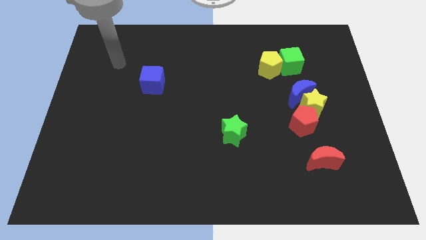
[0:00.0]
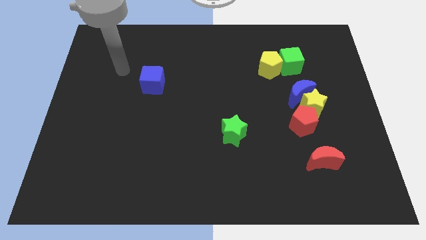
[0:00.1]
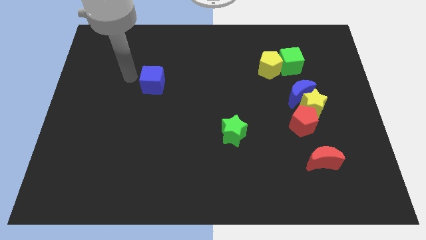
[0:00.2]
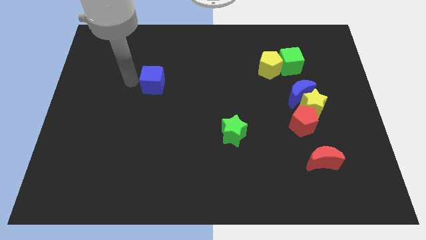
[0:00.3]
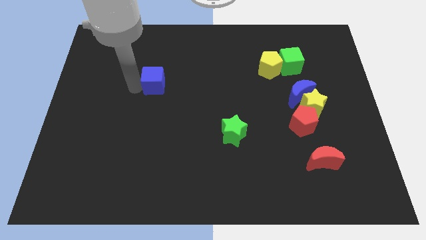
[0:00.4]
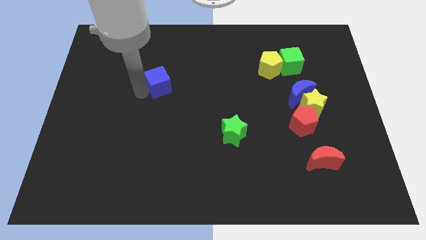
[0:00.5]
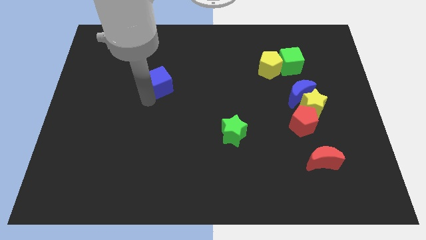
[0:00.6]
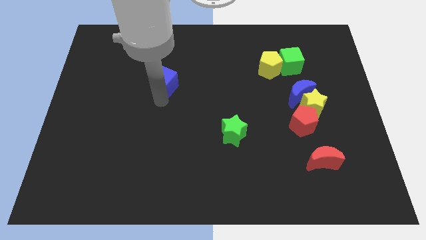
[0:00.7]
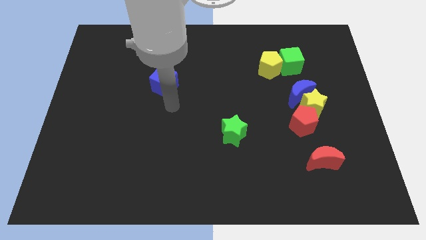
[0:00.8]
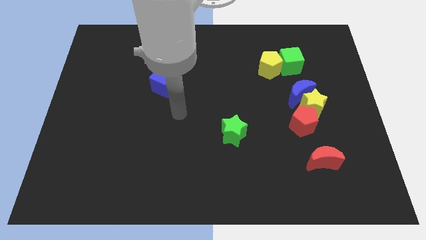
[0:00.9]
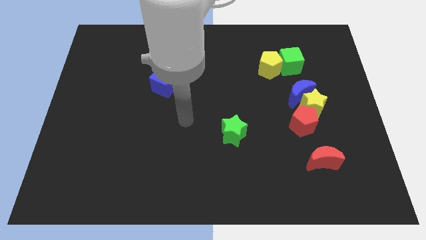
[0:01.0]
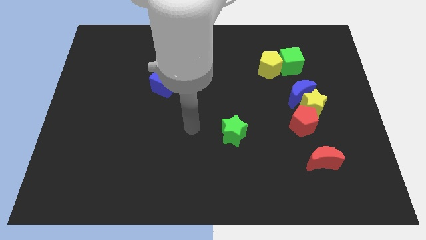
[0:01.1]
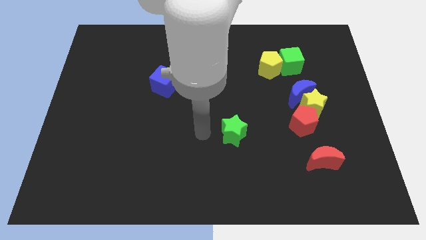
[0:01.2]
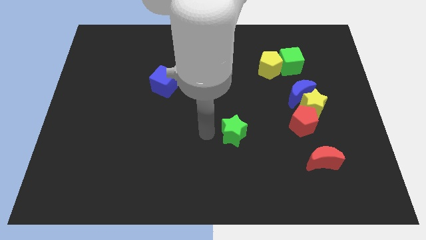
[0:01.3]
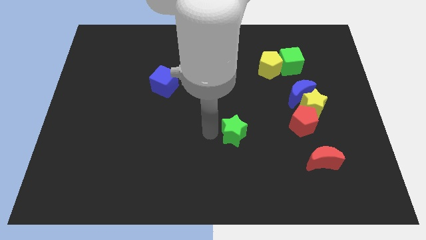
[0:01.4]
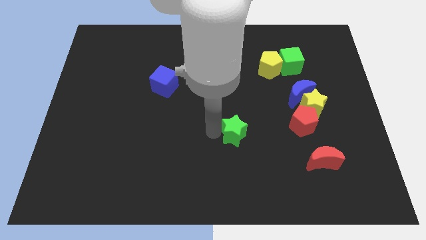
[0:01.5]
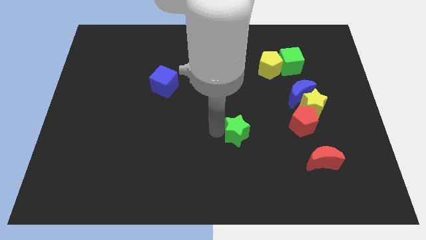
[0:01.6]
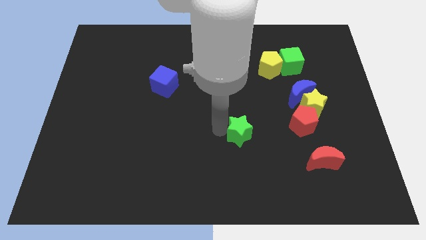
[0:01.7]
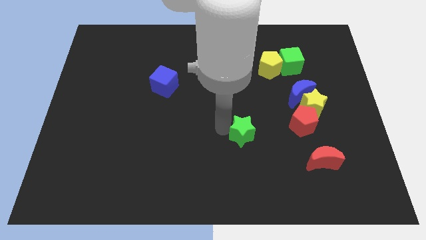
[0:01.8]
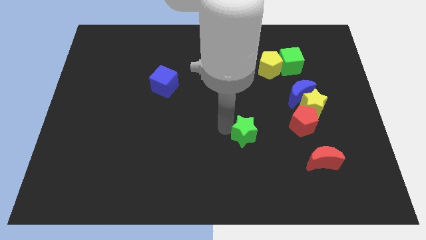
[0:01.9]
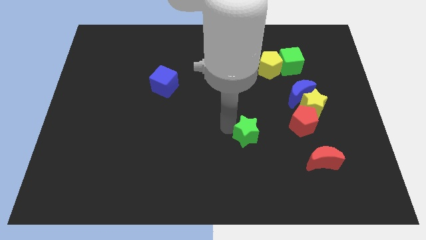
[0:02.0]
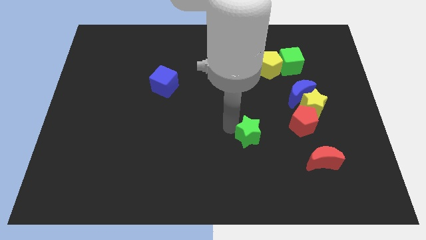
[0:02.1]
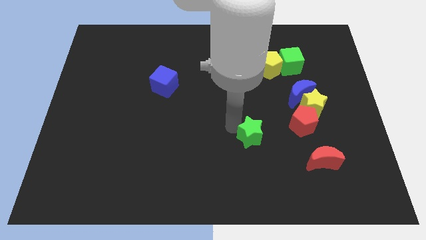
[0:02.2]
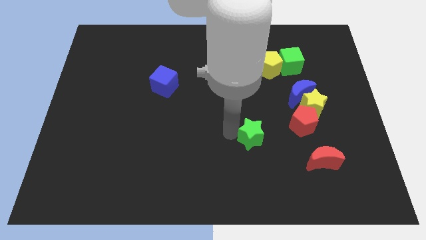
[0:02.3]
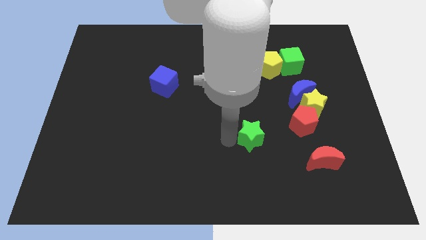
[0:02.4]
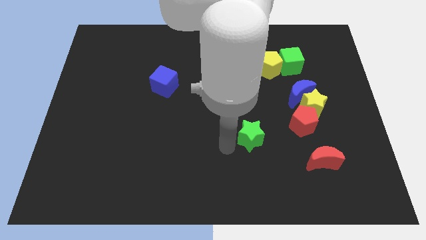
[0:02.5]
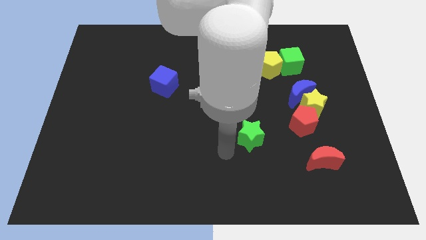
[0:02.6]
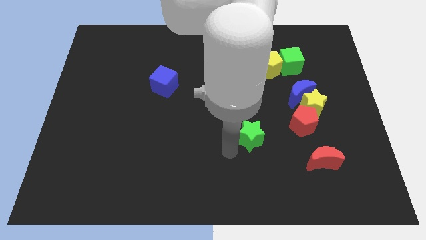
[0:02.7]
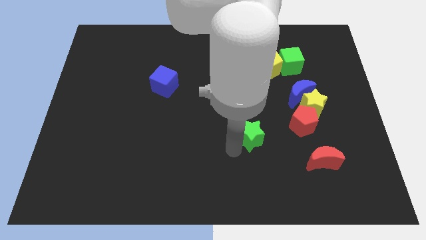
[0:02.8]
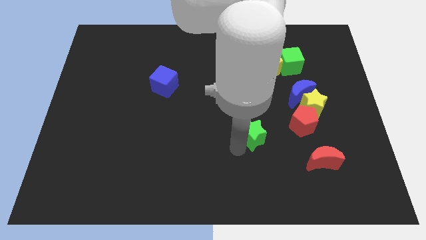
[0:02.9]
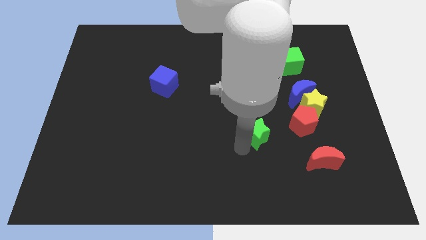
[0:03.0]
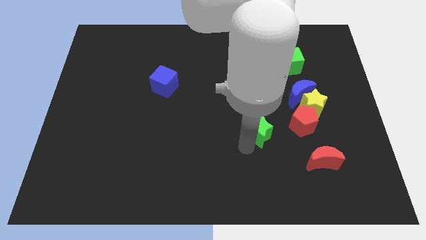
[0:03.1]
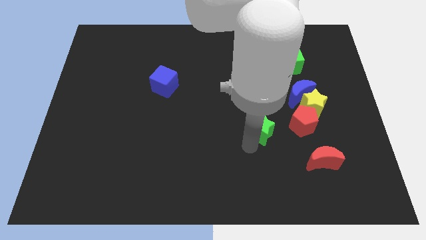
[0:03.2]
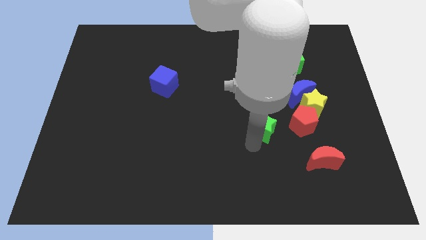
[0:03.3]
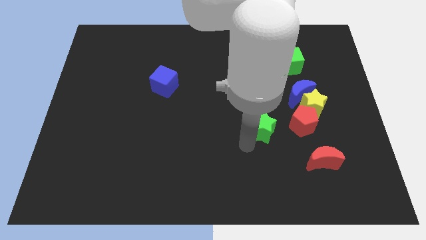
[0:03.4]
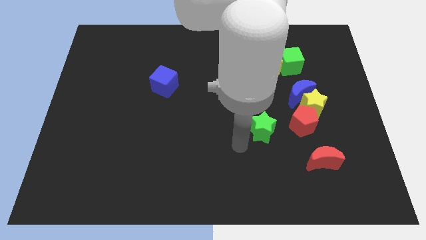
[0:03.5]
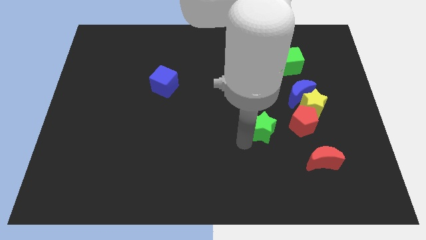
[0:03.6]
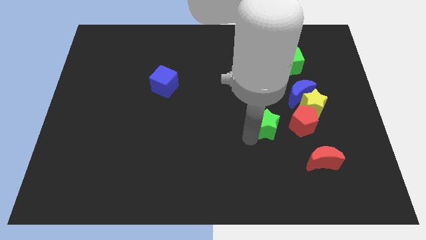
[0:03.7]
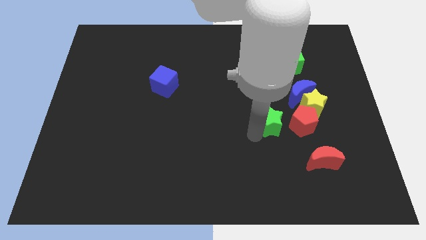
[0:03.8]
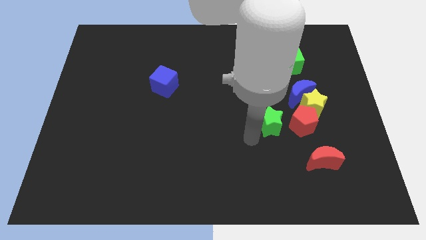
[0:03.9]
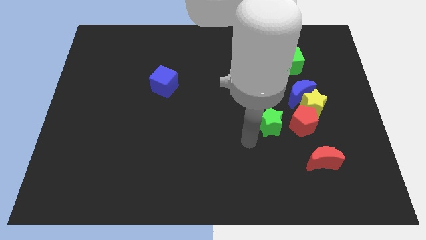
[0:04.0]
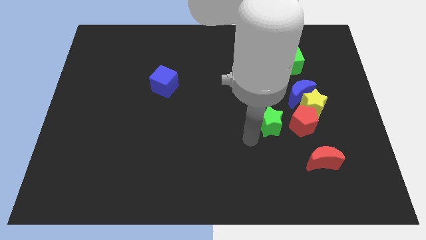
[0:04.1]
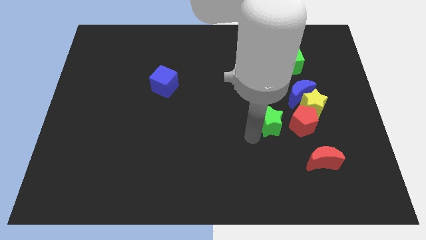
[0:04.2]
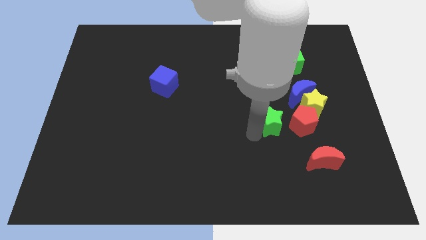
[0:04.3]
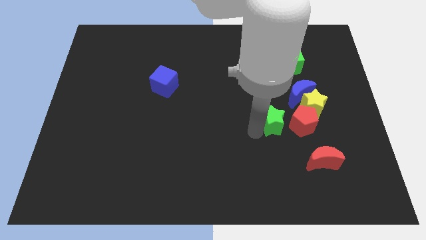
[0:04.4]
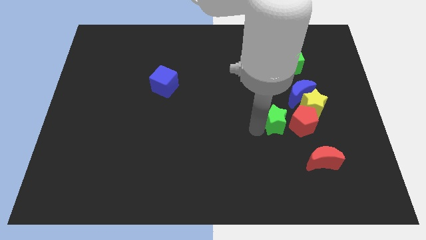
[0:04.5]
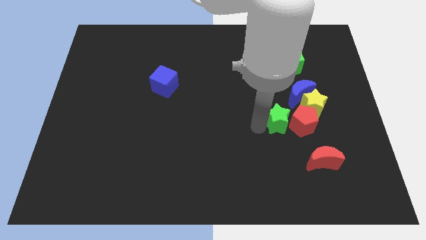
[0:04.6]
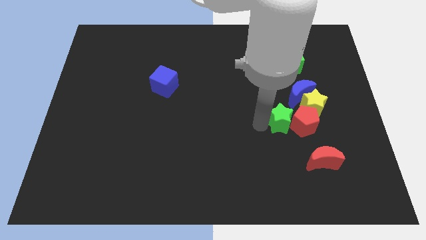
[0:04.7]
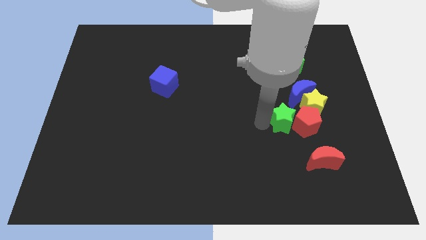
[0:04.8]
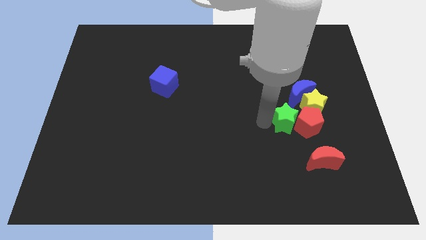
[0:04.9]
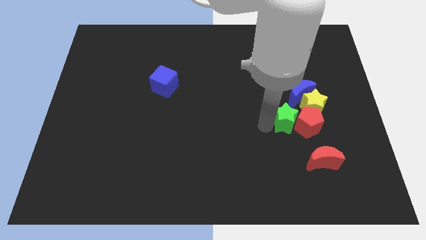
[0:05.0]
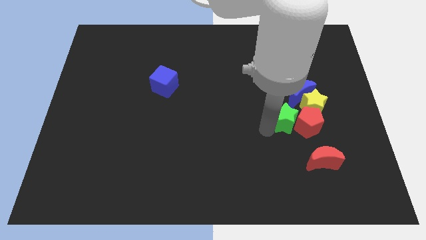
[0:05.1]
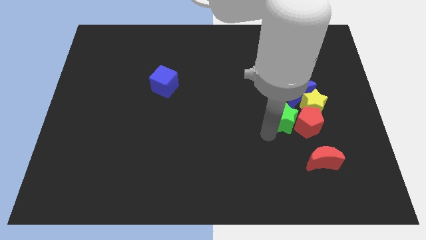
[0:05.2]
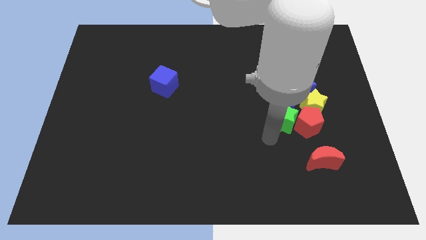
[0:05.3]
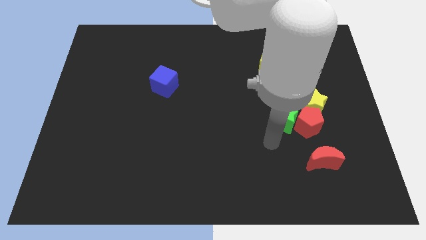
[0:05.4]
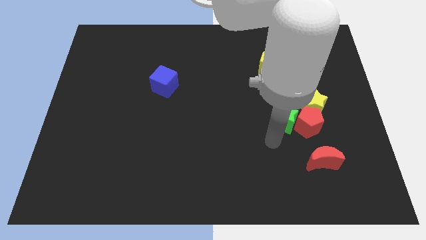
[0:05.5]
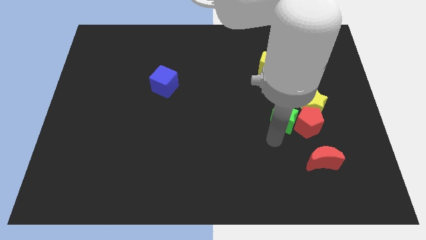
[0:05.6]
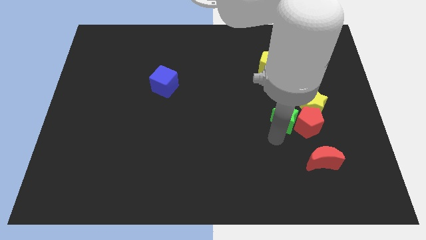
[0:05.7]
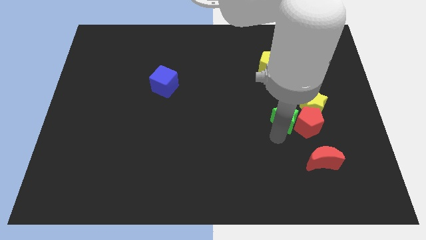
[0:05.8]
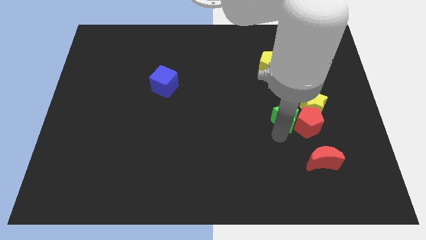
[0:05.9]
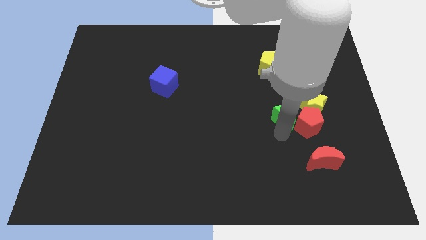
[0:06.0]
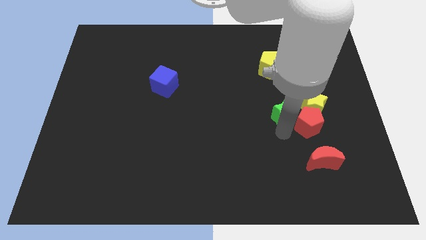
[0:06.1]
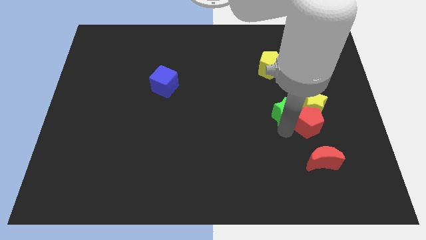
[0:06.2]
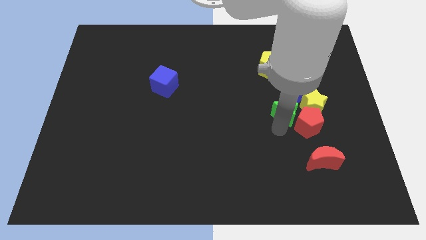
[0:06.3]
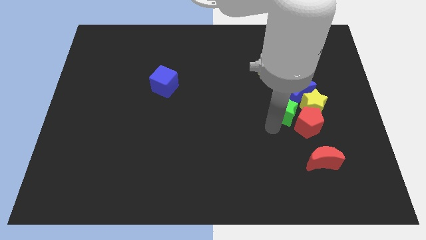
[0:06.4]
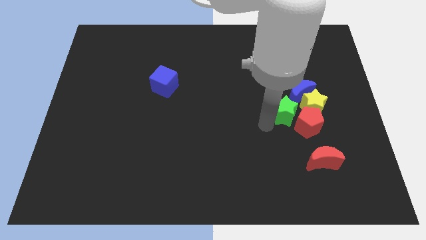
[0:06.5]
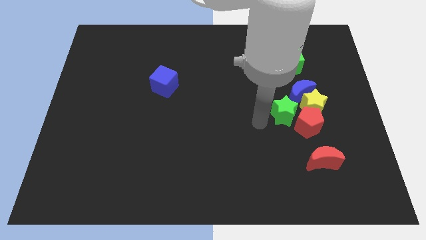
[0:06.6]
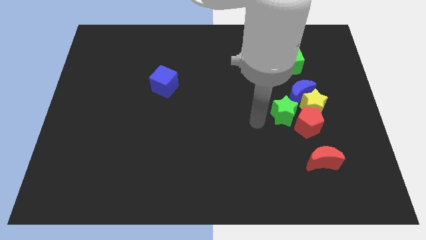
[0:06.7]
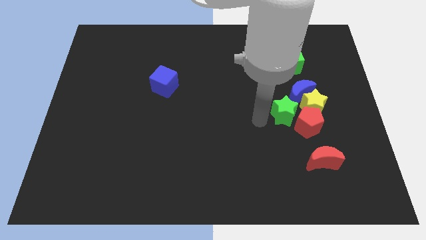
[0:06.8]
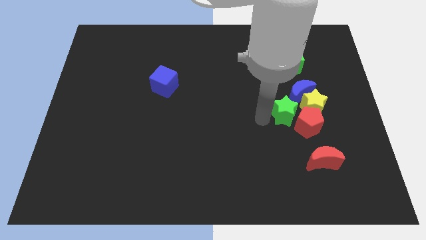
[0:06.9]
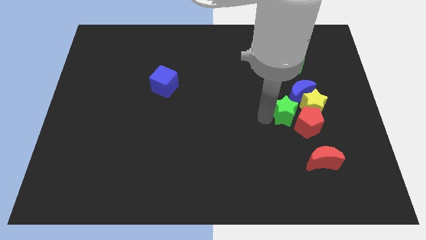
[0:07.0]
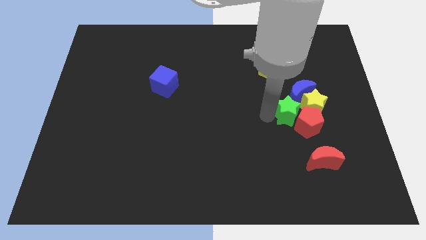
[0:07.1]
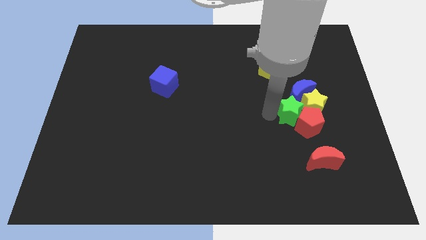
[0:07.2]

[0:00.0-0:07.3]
put the green star towards the yellow star
